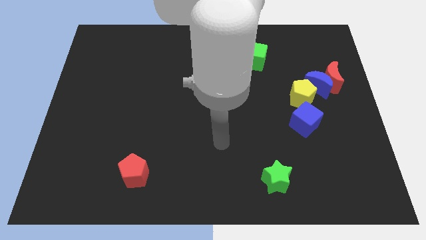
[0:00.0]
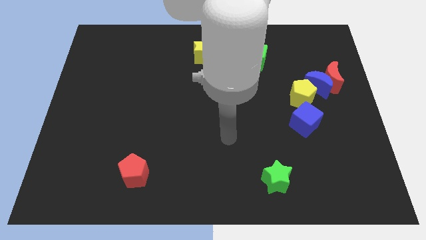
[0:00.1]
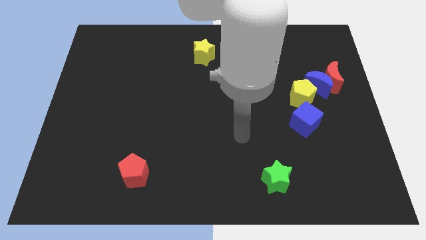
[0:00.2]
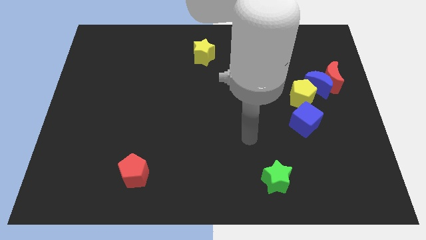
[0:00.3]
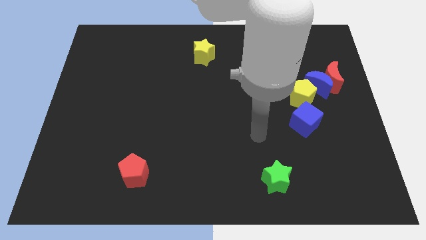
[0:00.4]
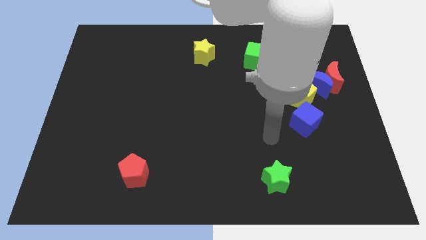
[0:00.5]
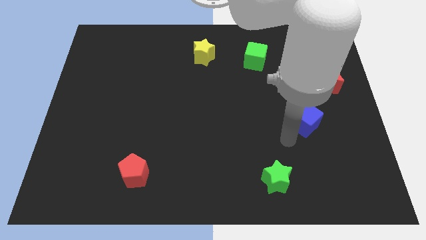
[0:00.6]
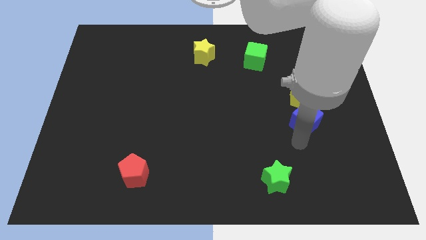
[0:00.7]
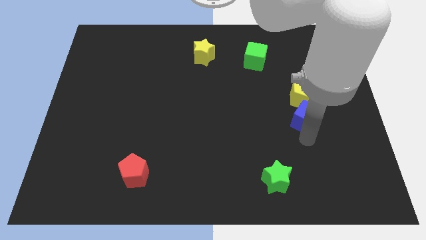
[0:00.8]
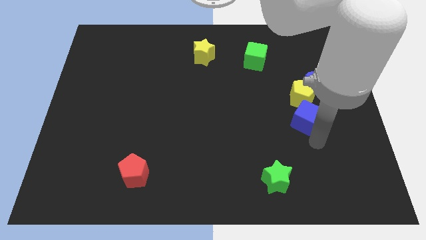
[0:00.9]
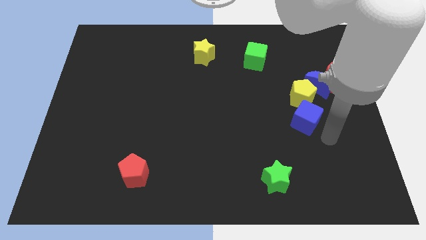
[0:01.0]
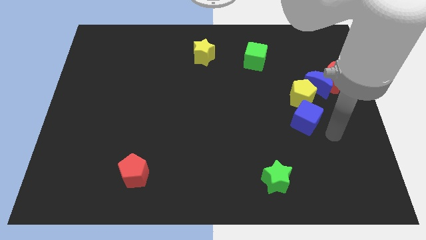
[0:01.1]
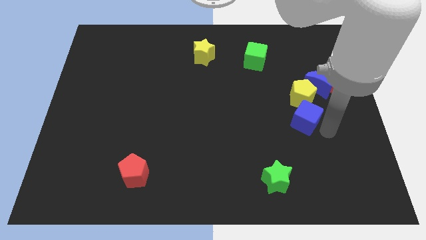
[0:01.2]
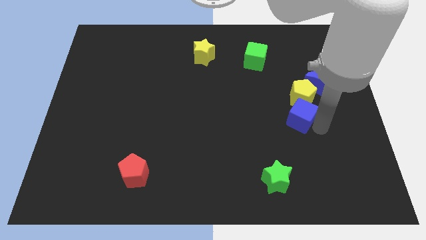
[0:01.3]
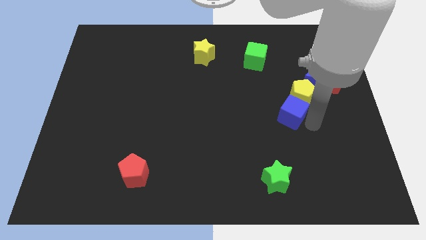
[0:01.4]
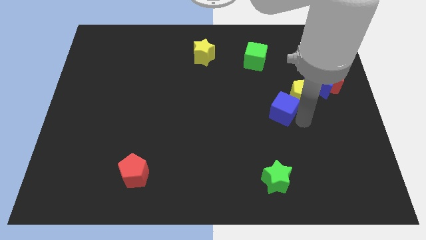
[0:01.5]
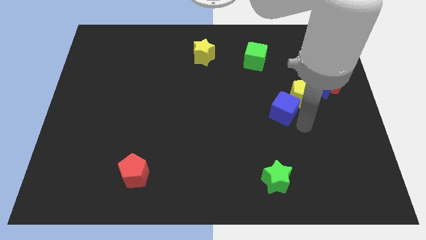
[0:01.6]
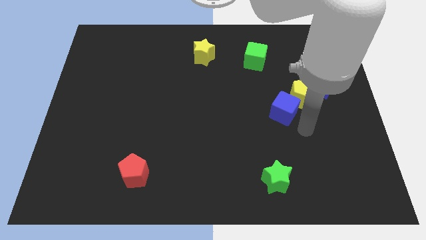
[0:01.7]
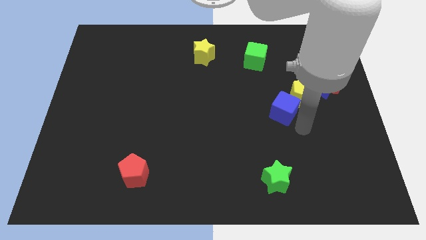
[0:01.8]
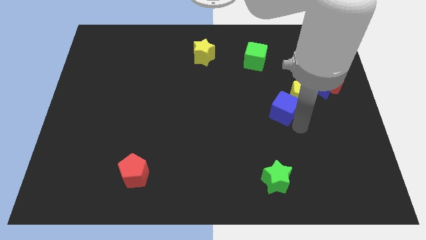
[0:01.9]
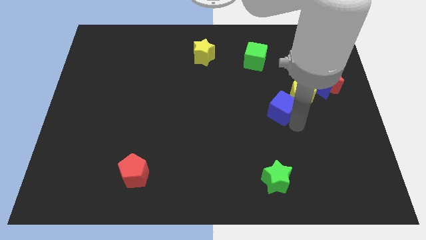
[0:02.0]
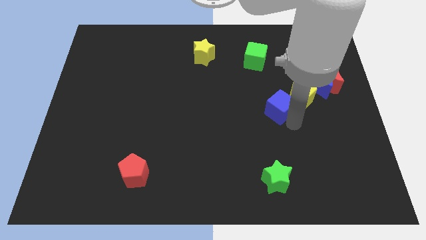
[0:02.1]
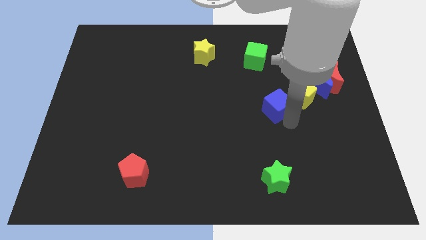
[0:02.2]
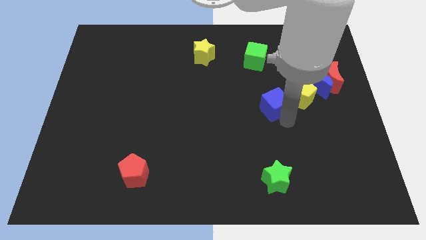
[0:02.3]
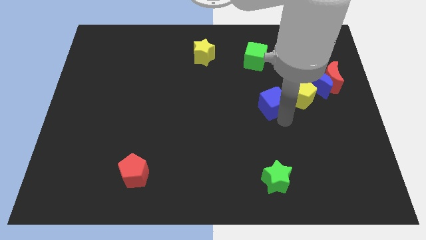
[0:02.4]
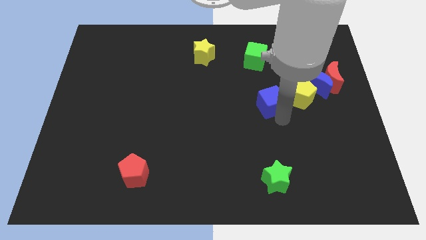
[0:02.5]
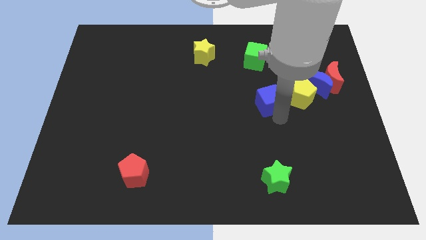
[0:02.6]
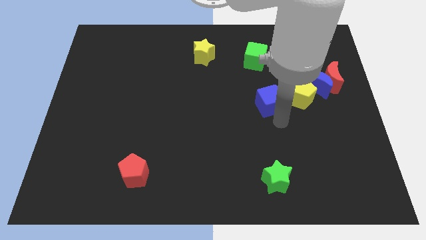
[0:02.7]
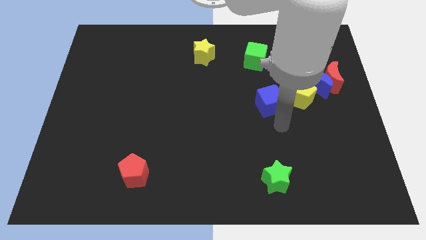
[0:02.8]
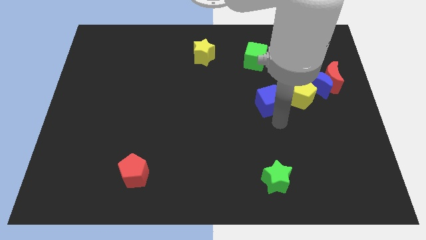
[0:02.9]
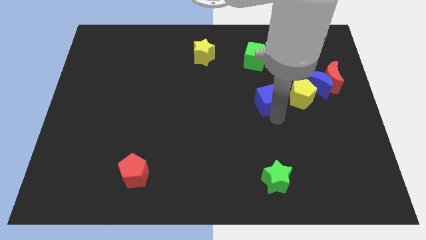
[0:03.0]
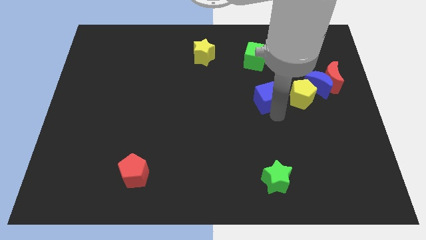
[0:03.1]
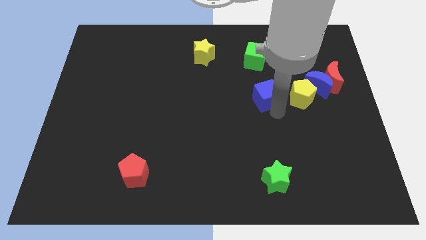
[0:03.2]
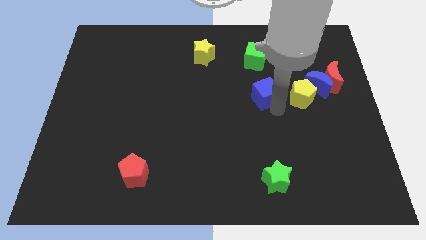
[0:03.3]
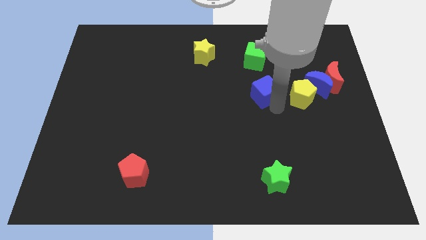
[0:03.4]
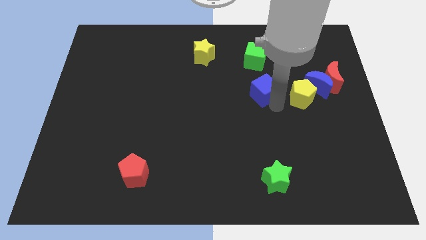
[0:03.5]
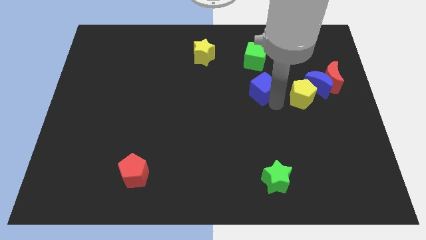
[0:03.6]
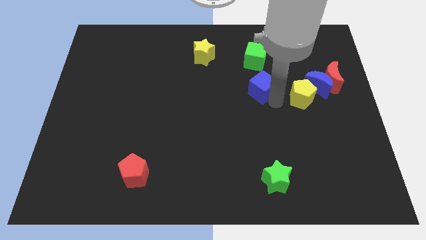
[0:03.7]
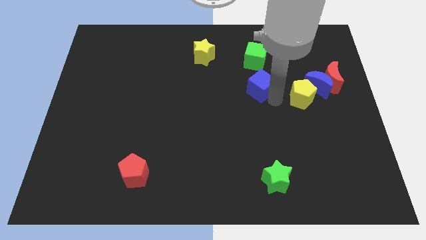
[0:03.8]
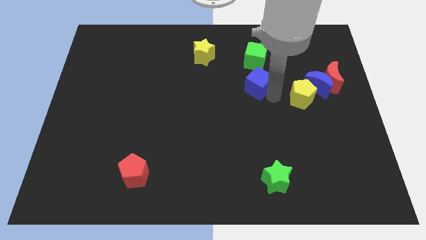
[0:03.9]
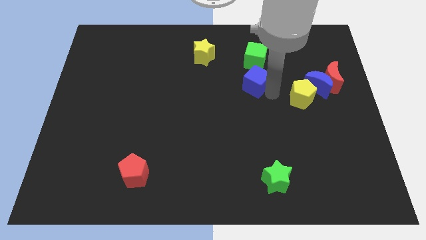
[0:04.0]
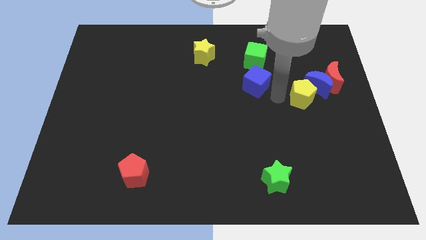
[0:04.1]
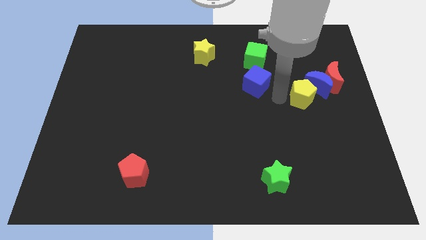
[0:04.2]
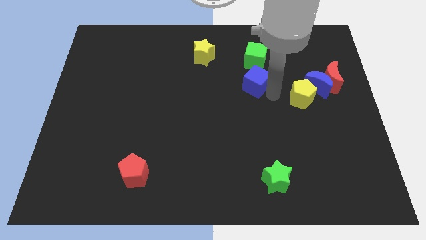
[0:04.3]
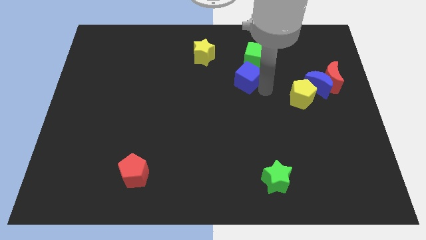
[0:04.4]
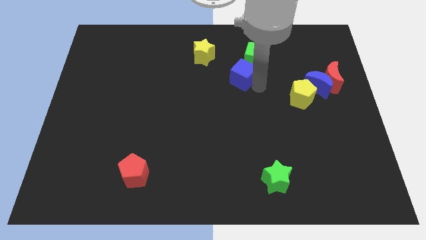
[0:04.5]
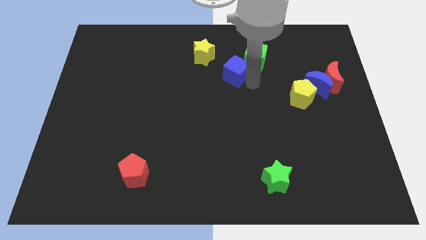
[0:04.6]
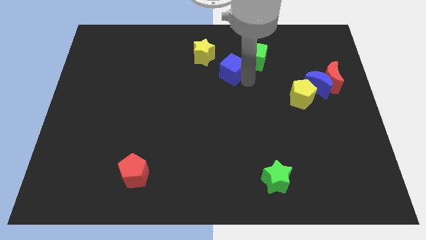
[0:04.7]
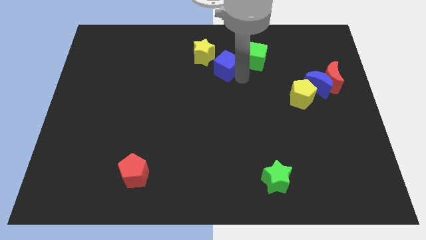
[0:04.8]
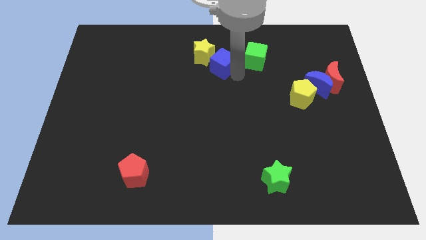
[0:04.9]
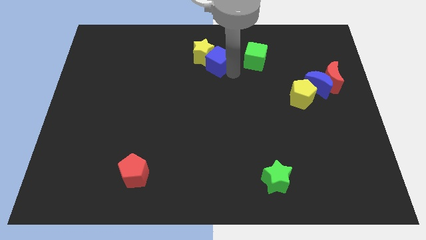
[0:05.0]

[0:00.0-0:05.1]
push the blue cube close to the yellow star

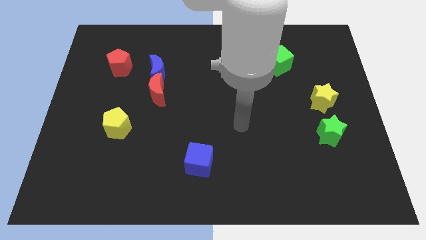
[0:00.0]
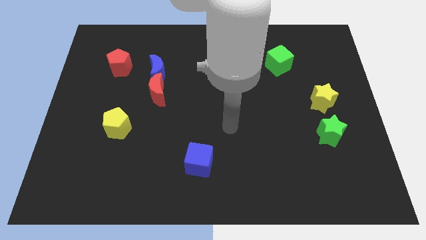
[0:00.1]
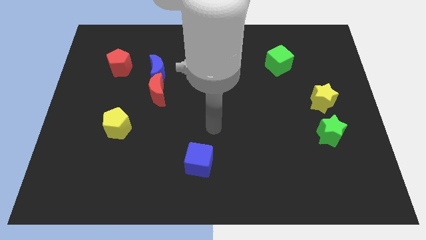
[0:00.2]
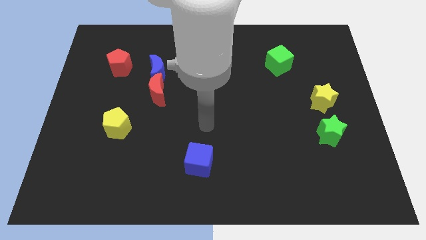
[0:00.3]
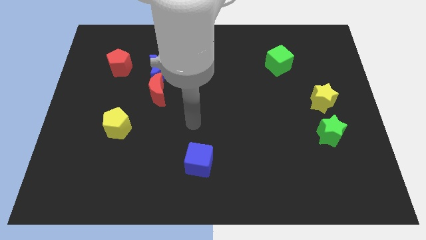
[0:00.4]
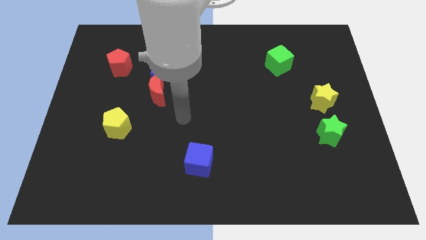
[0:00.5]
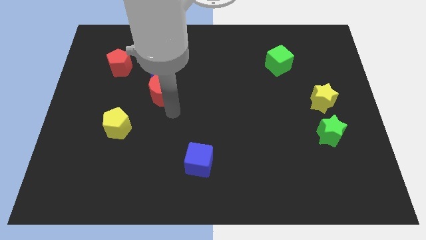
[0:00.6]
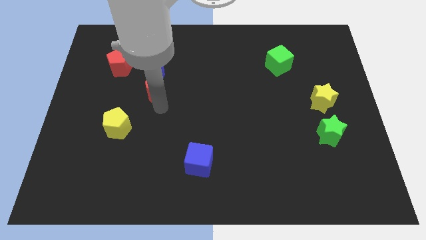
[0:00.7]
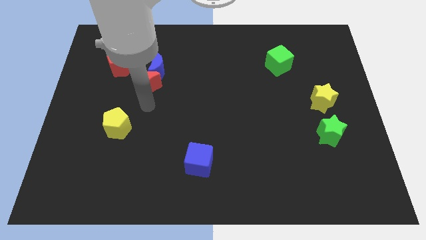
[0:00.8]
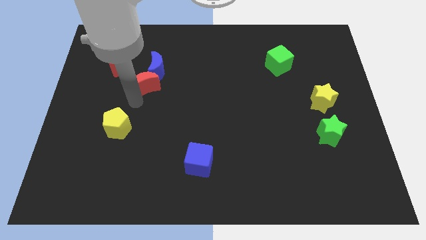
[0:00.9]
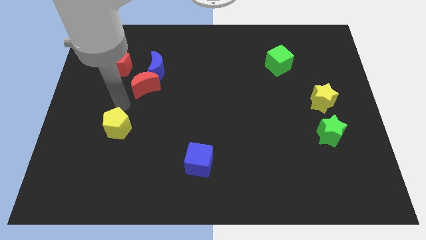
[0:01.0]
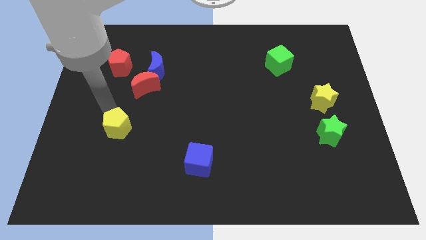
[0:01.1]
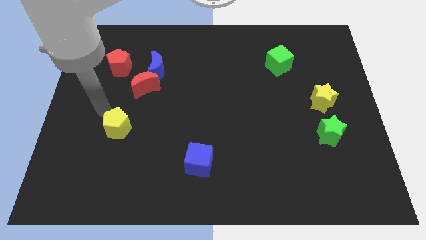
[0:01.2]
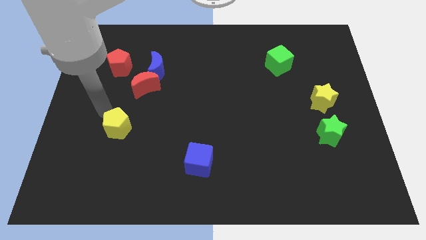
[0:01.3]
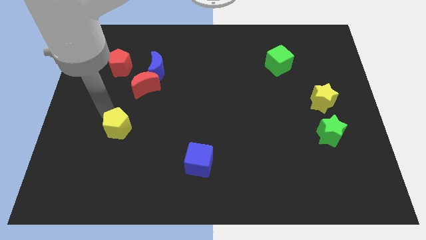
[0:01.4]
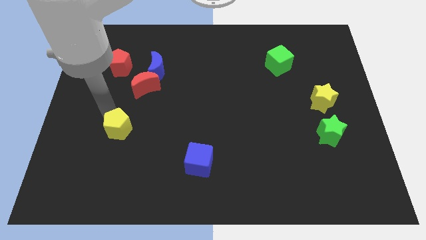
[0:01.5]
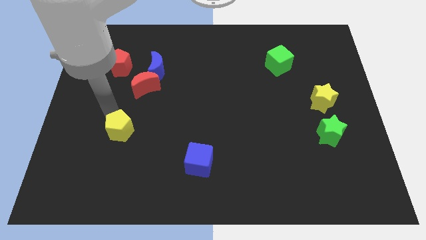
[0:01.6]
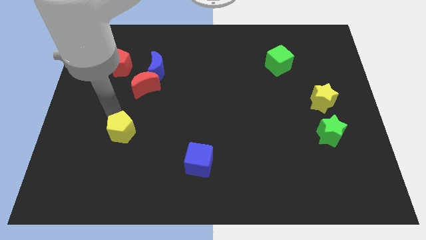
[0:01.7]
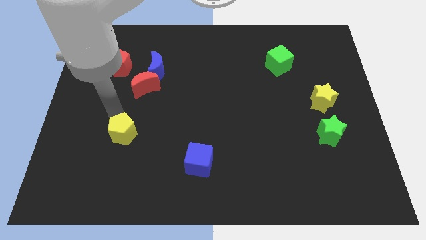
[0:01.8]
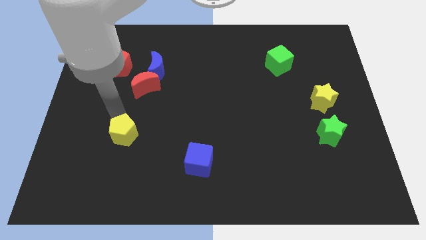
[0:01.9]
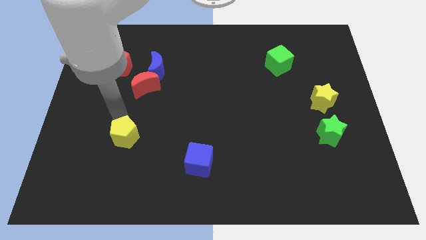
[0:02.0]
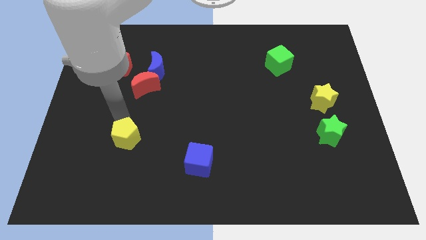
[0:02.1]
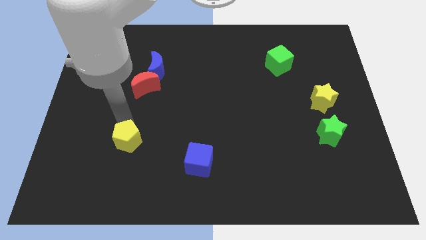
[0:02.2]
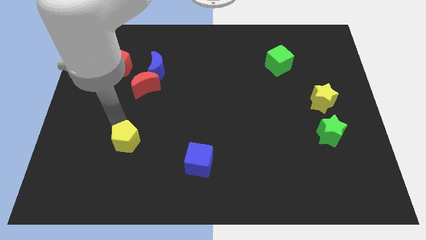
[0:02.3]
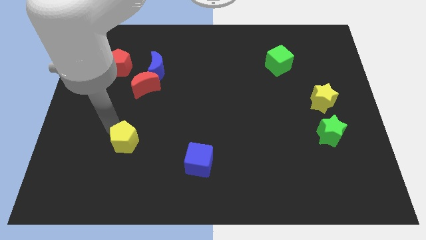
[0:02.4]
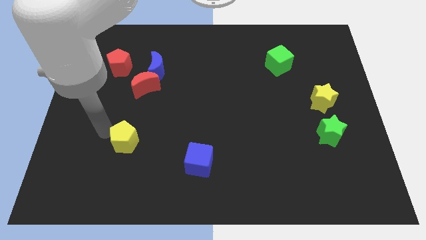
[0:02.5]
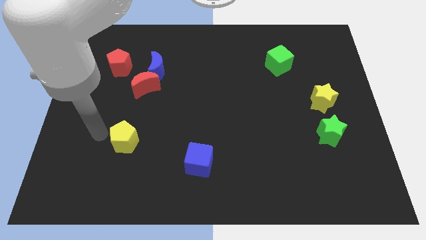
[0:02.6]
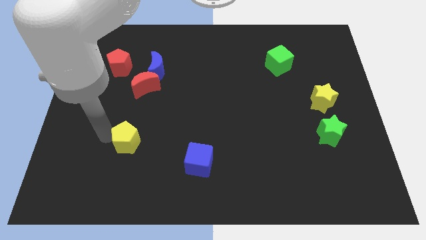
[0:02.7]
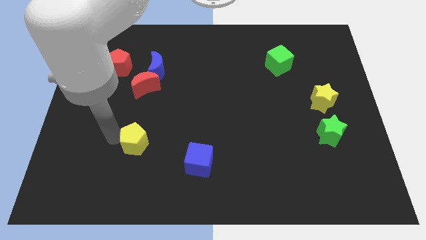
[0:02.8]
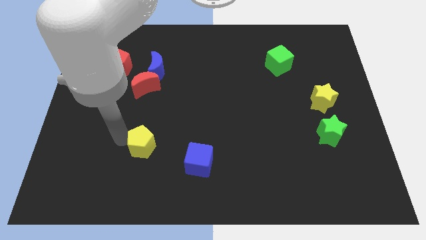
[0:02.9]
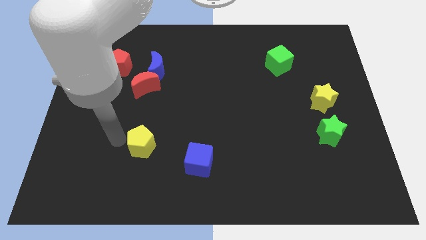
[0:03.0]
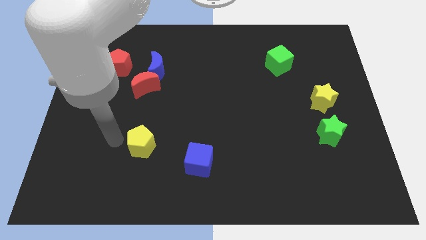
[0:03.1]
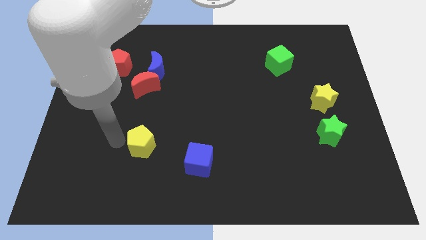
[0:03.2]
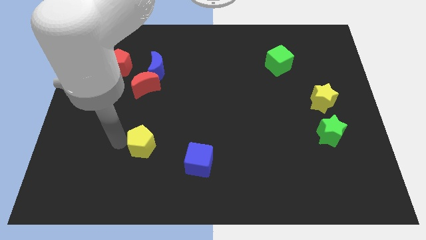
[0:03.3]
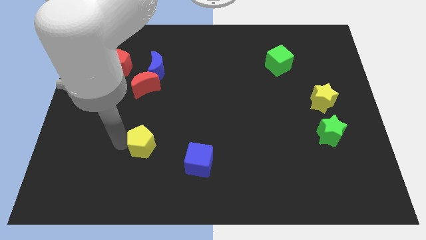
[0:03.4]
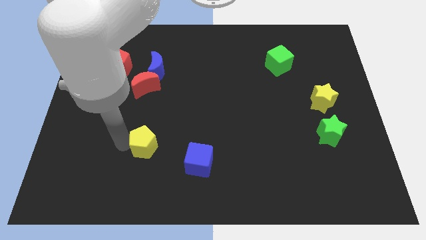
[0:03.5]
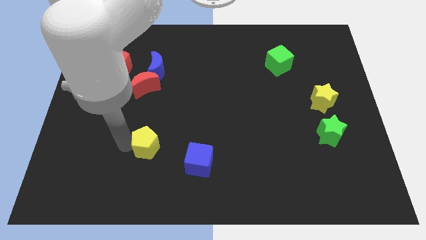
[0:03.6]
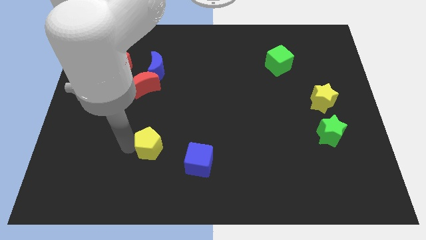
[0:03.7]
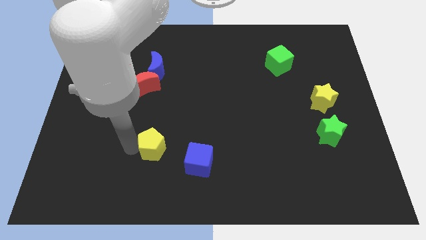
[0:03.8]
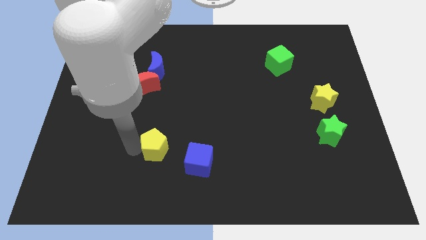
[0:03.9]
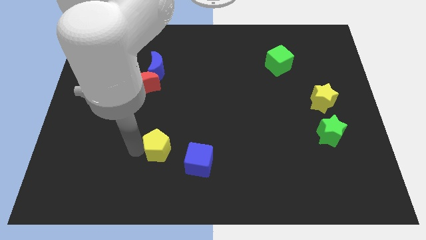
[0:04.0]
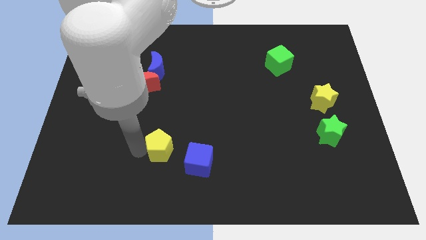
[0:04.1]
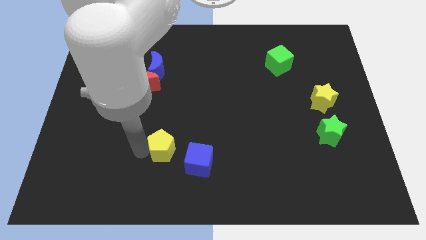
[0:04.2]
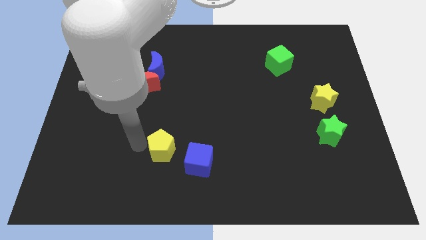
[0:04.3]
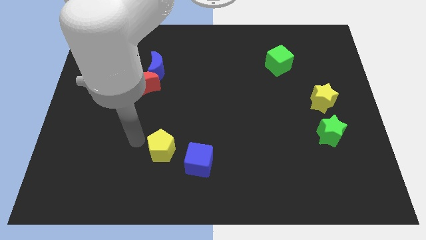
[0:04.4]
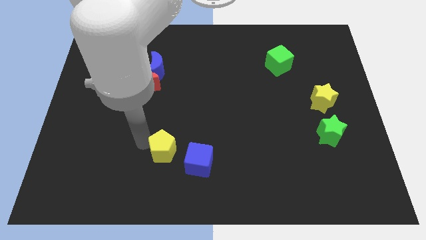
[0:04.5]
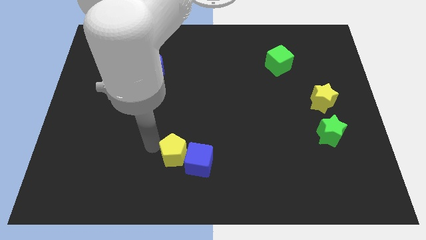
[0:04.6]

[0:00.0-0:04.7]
push the yellow pentagon to the blue cube
